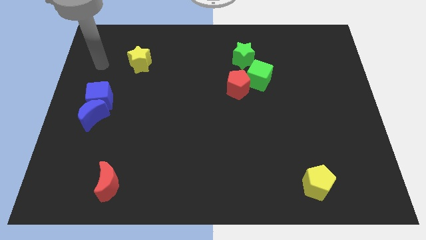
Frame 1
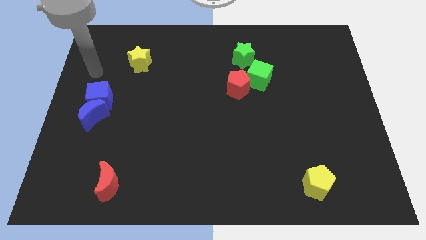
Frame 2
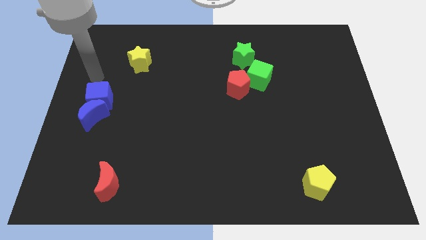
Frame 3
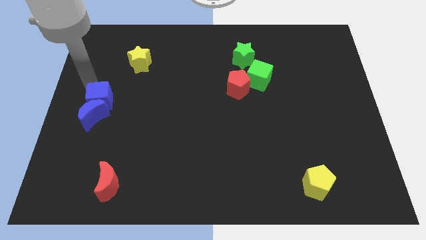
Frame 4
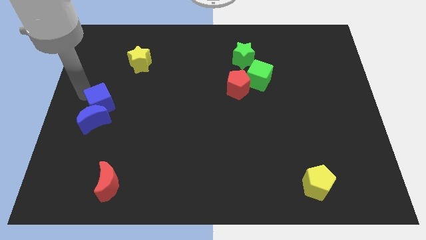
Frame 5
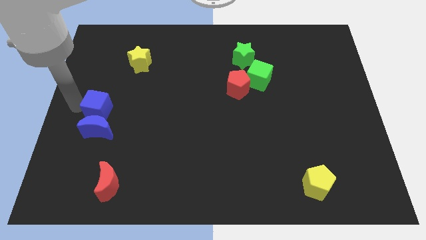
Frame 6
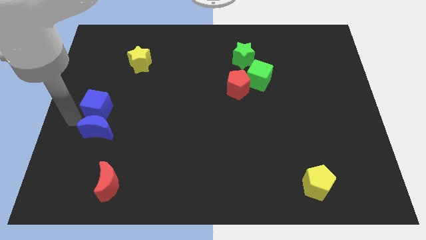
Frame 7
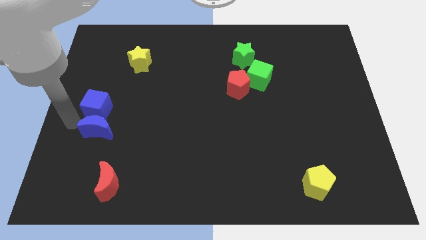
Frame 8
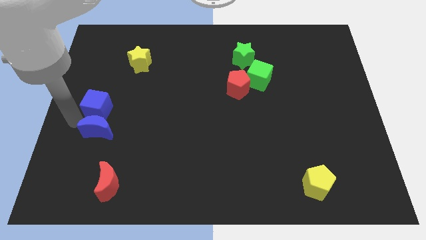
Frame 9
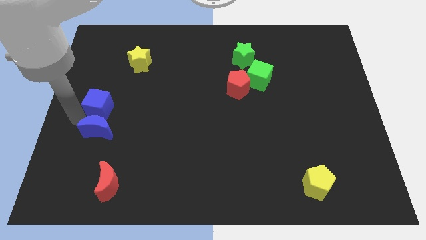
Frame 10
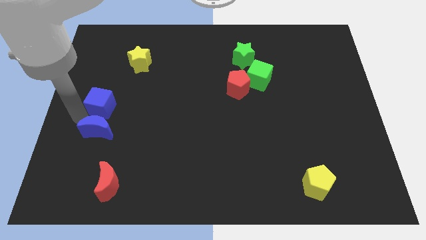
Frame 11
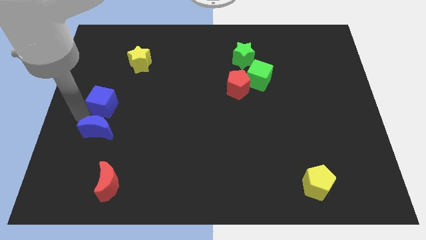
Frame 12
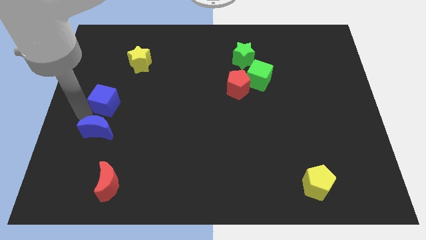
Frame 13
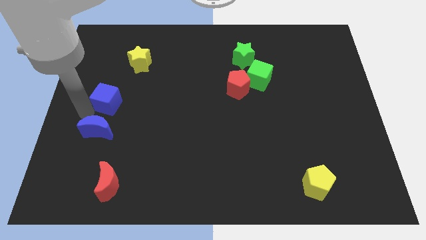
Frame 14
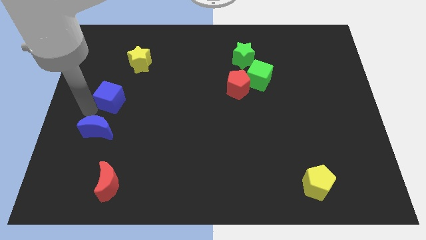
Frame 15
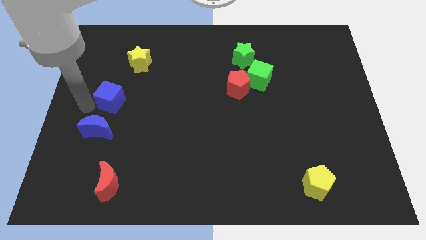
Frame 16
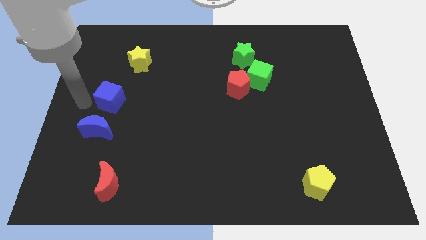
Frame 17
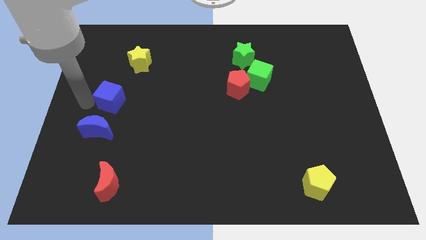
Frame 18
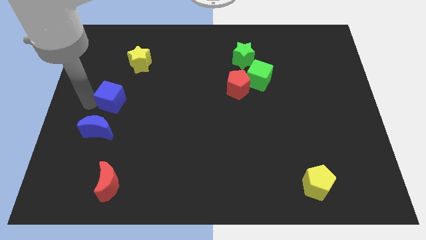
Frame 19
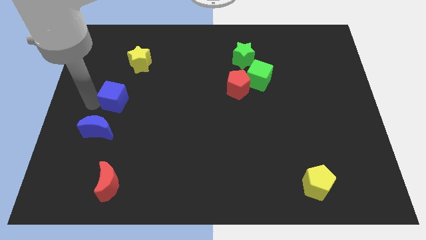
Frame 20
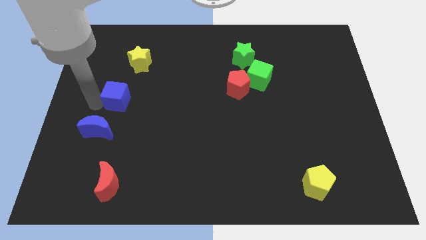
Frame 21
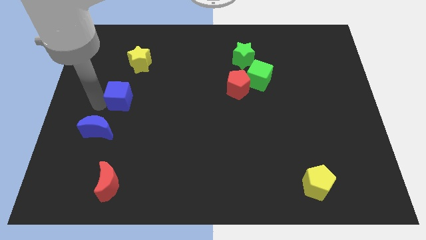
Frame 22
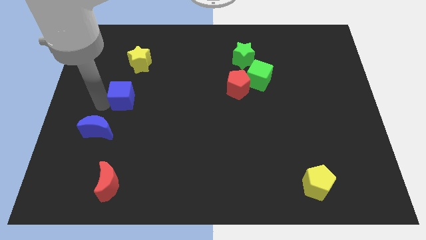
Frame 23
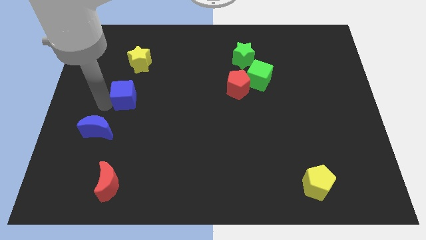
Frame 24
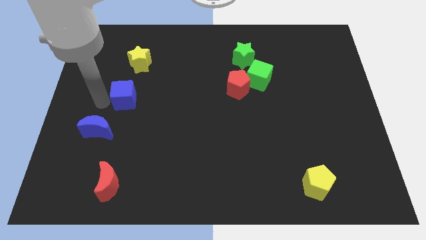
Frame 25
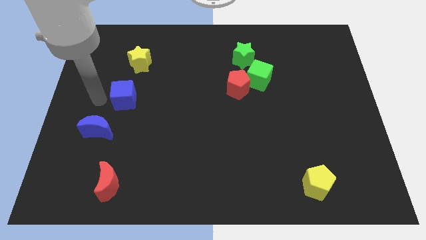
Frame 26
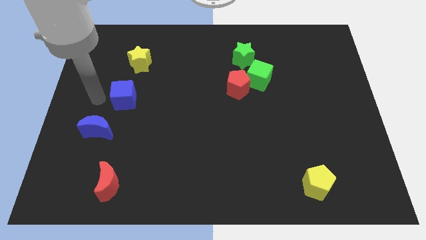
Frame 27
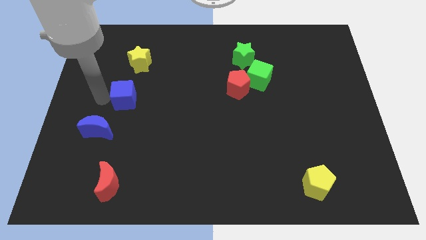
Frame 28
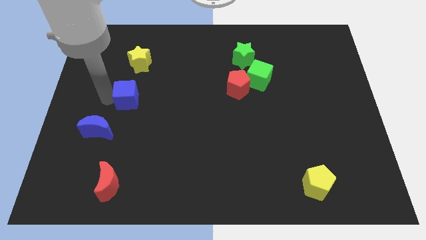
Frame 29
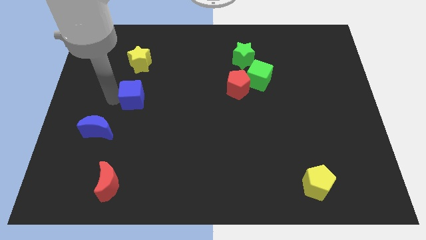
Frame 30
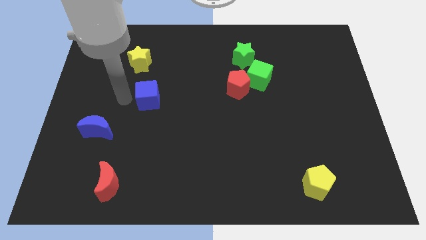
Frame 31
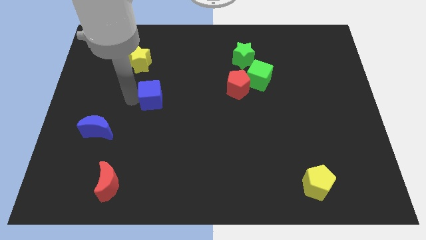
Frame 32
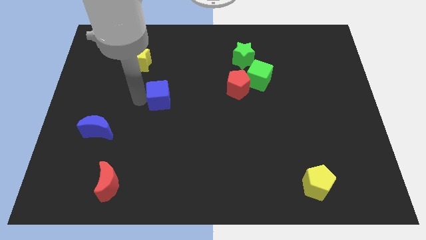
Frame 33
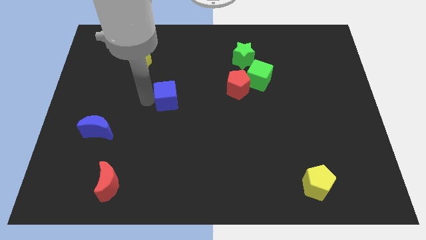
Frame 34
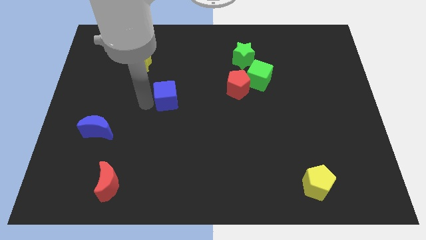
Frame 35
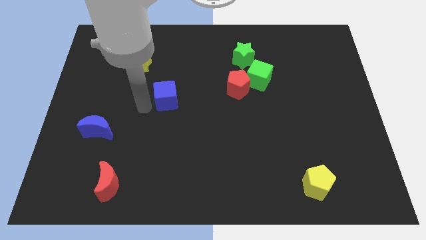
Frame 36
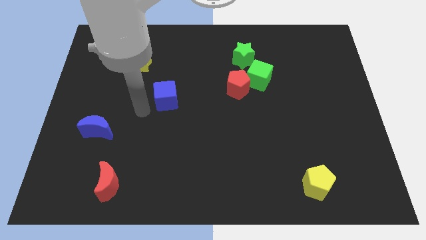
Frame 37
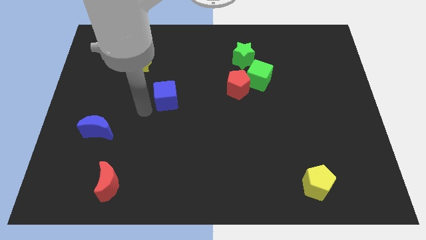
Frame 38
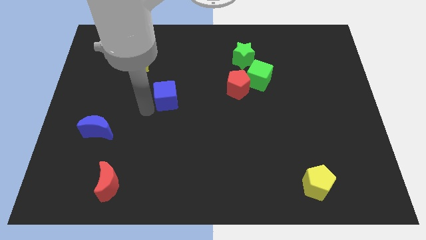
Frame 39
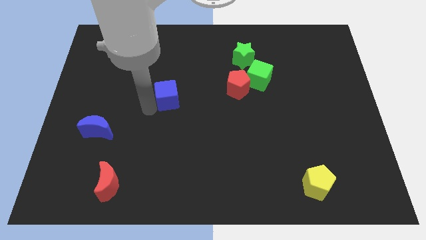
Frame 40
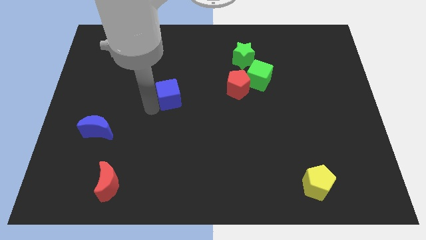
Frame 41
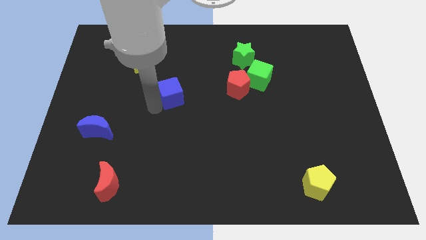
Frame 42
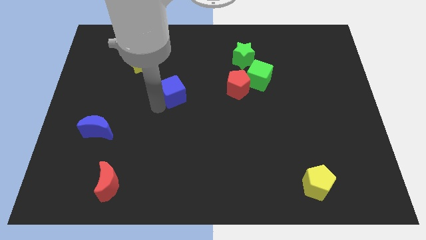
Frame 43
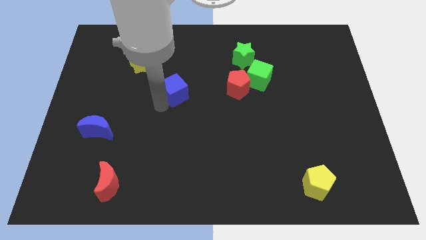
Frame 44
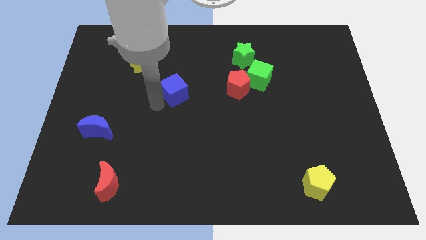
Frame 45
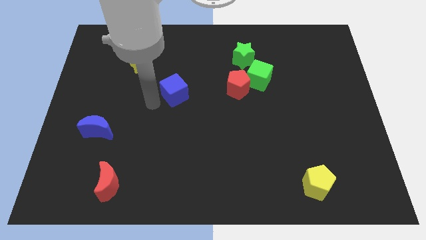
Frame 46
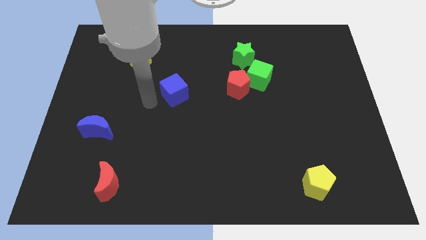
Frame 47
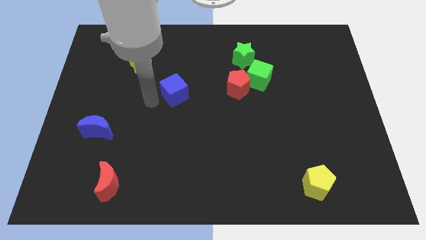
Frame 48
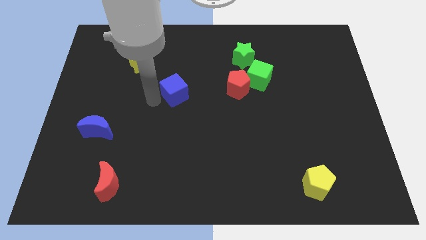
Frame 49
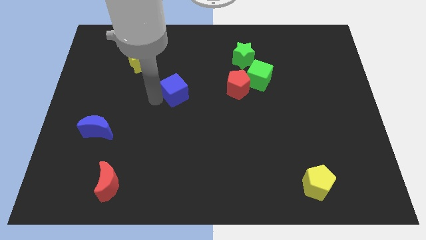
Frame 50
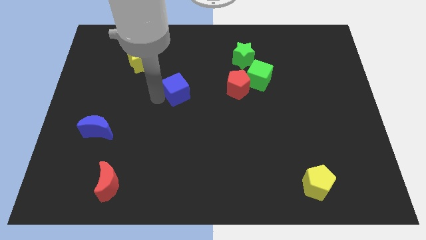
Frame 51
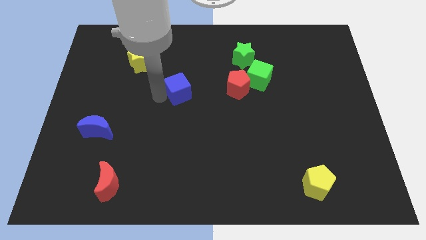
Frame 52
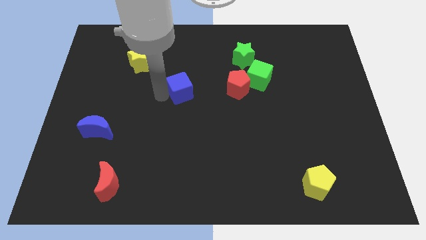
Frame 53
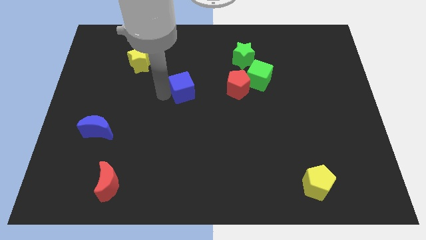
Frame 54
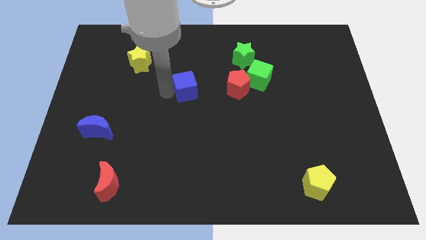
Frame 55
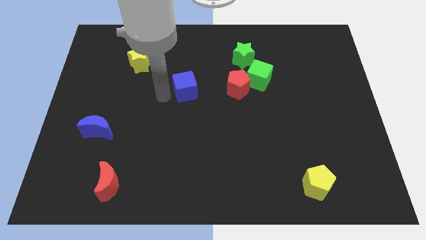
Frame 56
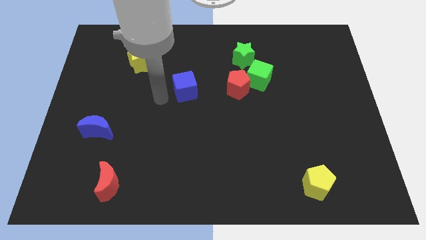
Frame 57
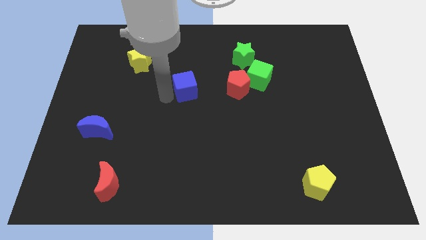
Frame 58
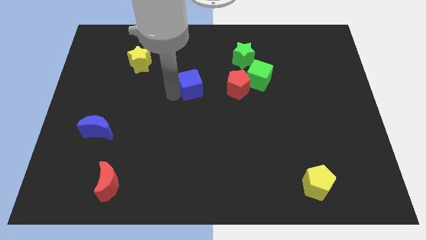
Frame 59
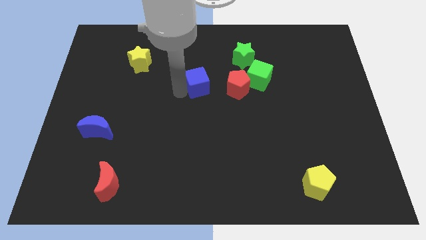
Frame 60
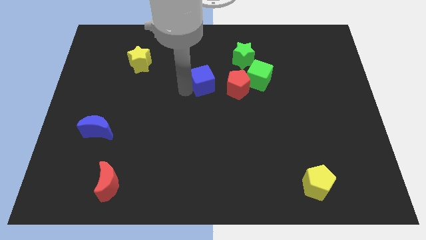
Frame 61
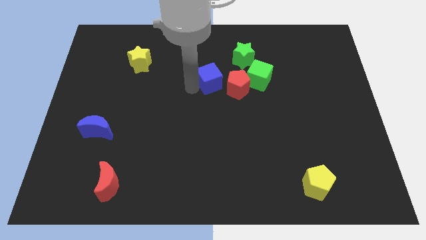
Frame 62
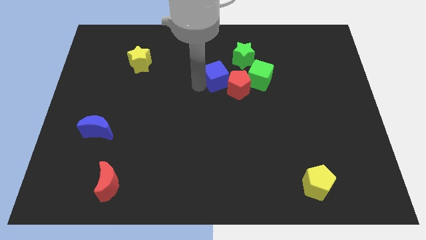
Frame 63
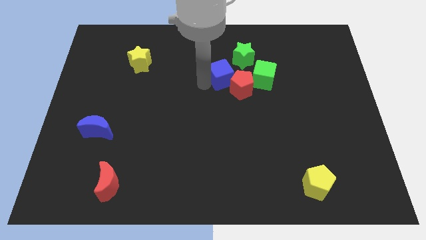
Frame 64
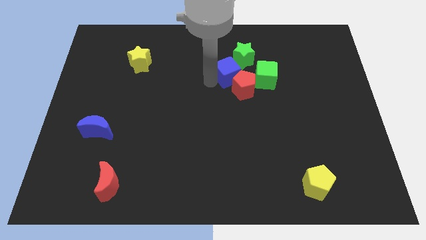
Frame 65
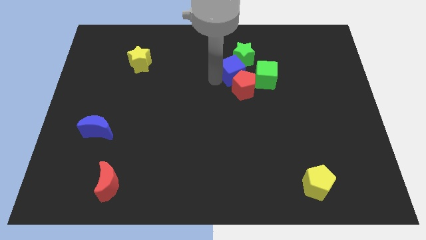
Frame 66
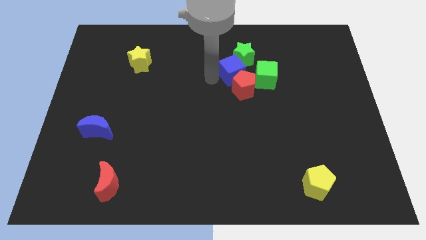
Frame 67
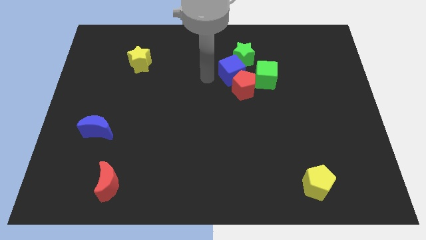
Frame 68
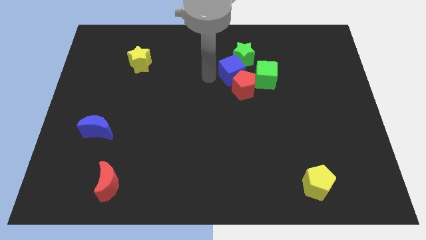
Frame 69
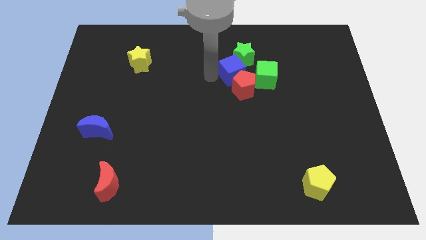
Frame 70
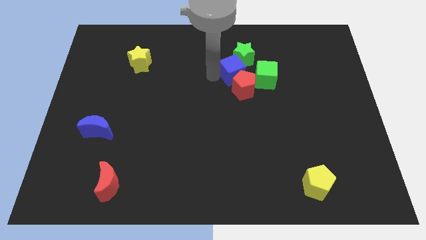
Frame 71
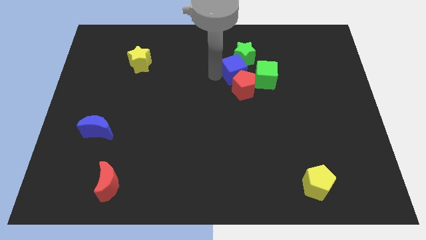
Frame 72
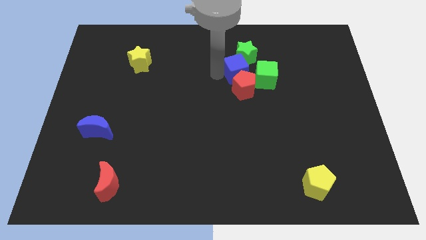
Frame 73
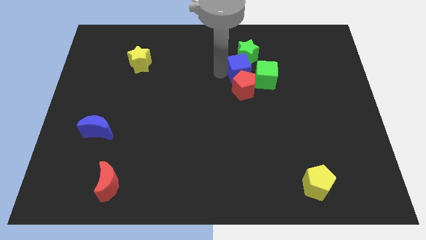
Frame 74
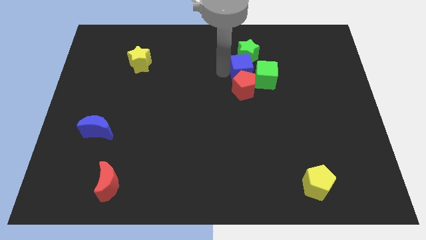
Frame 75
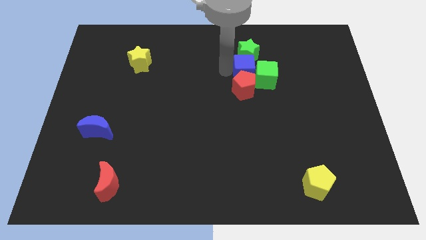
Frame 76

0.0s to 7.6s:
move the blue cube to the green cube

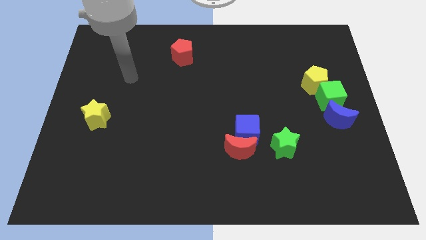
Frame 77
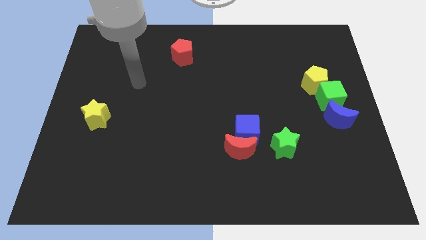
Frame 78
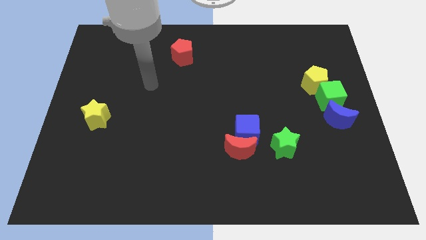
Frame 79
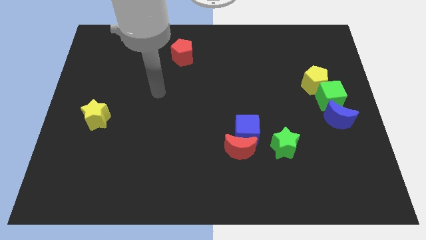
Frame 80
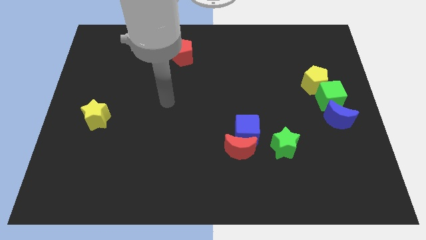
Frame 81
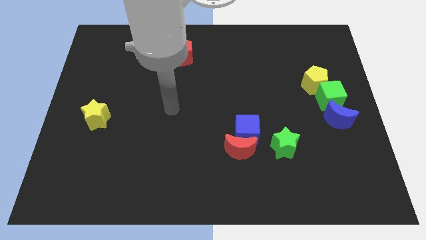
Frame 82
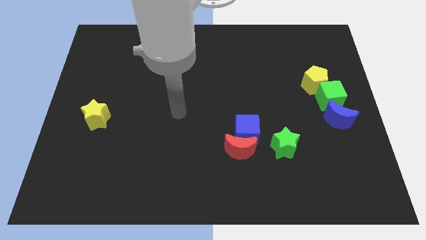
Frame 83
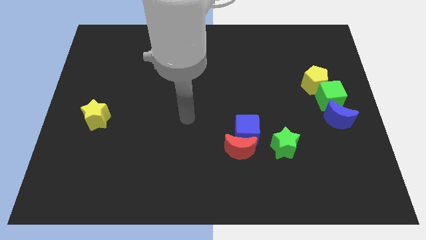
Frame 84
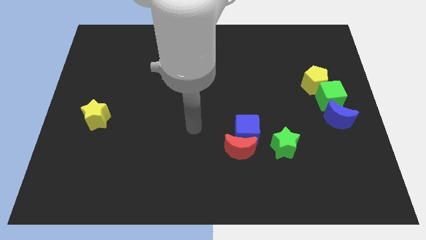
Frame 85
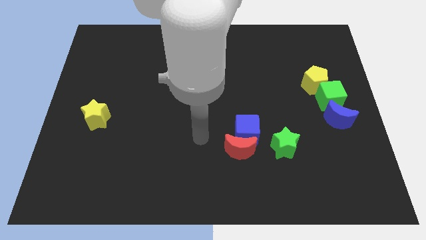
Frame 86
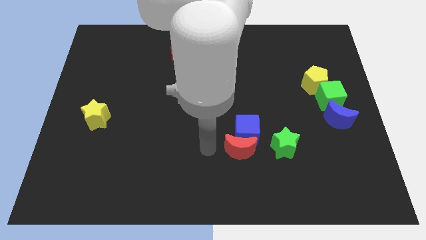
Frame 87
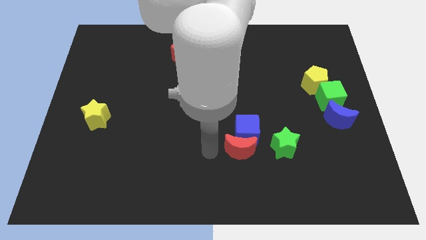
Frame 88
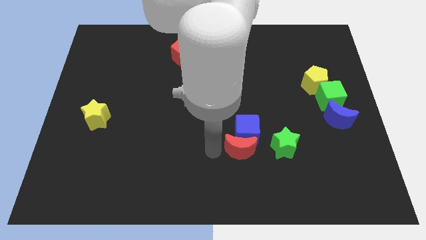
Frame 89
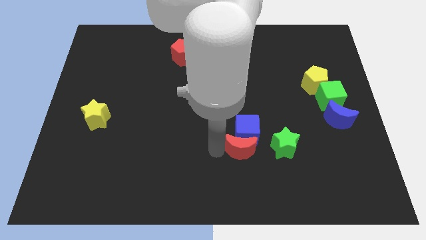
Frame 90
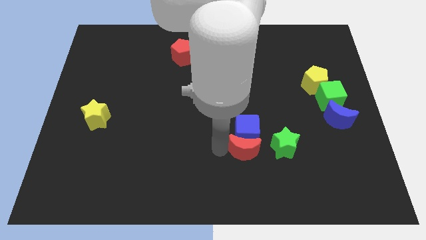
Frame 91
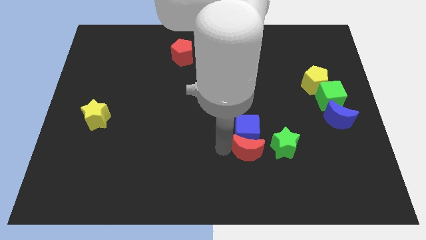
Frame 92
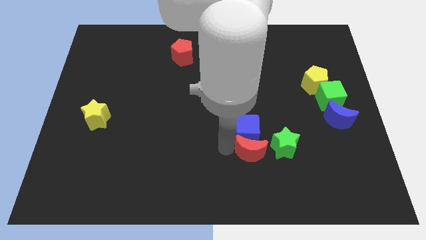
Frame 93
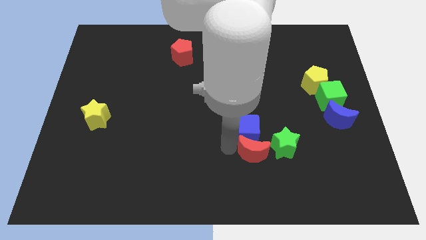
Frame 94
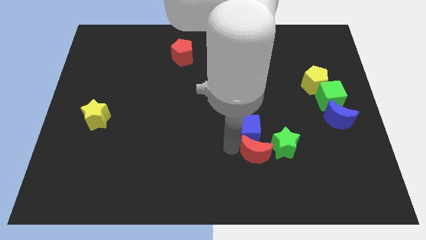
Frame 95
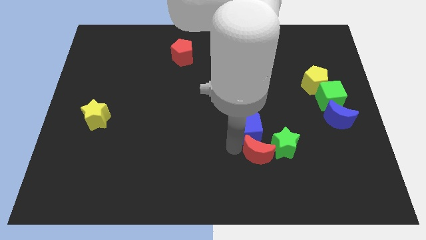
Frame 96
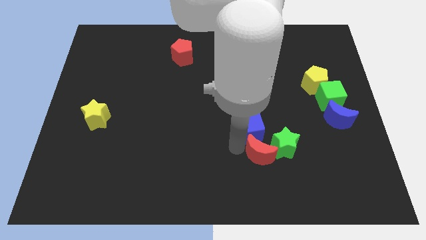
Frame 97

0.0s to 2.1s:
push the red moon to the green star
